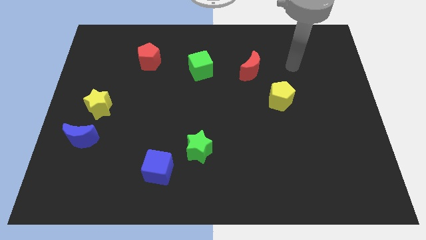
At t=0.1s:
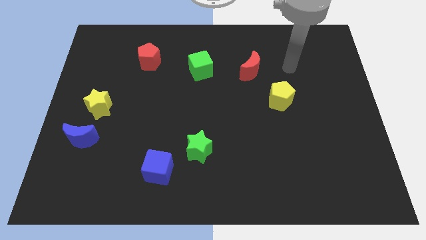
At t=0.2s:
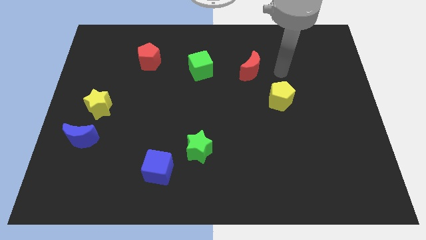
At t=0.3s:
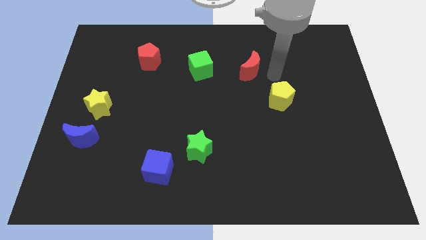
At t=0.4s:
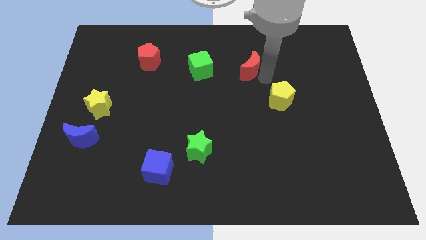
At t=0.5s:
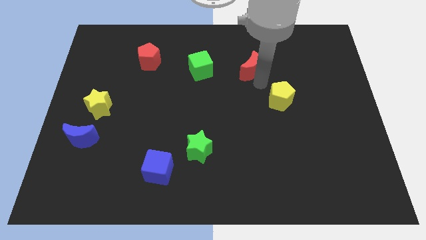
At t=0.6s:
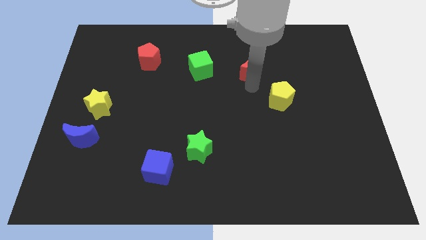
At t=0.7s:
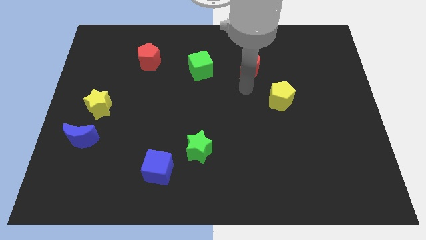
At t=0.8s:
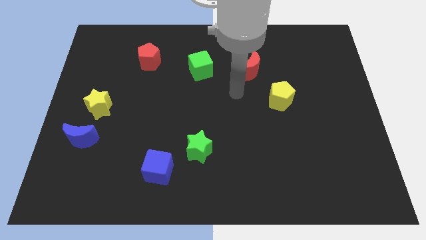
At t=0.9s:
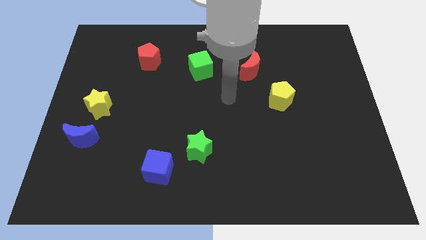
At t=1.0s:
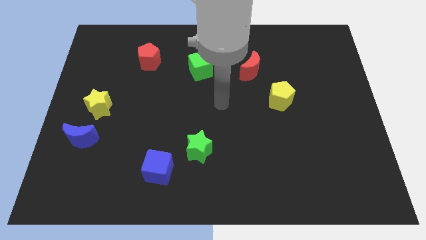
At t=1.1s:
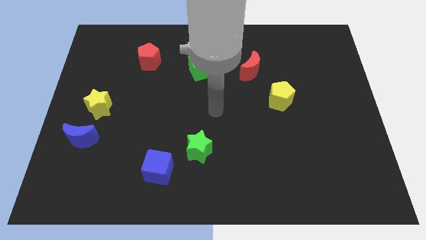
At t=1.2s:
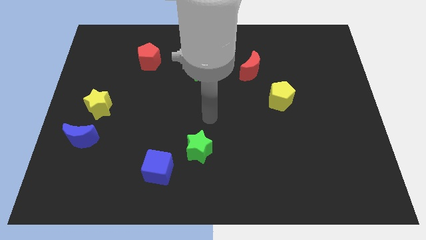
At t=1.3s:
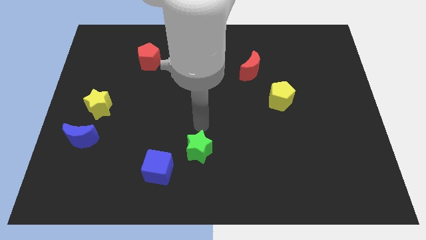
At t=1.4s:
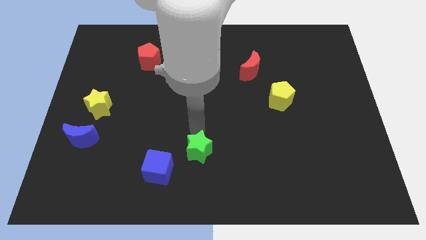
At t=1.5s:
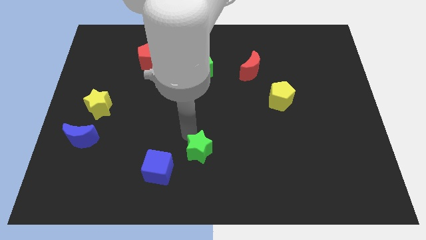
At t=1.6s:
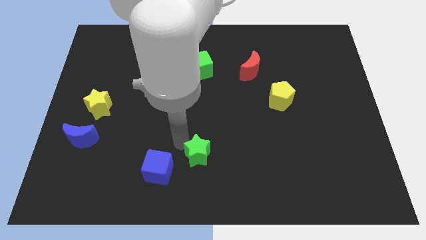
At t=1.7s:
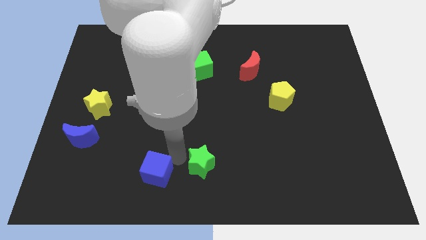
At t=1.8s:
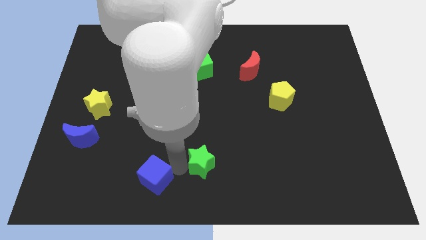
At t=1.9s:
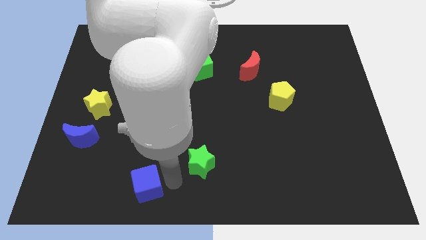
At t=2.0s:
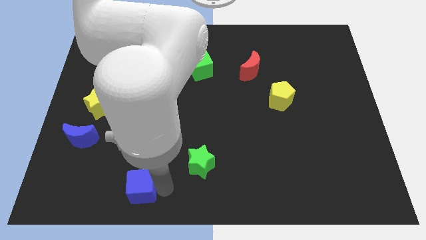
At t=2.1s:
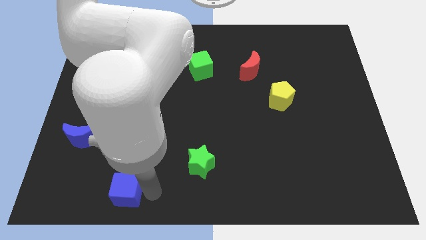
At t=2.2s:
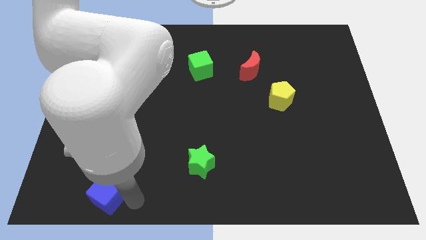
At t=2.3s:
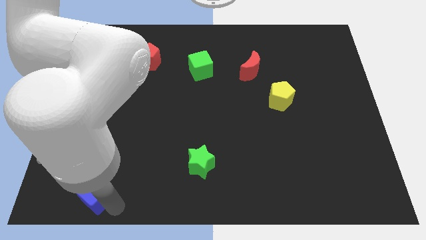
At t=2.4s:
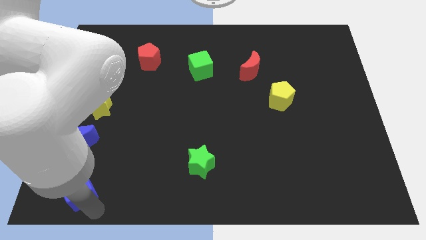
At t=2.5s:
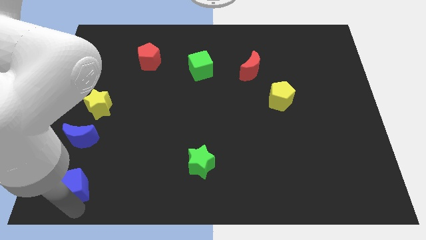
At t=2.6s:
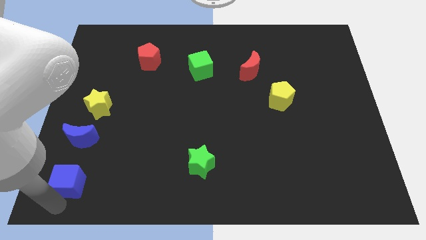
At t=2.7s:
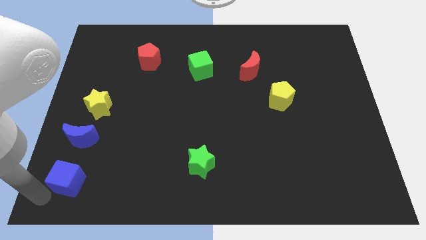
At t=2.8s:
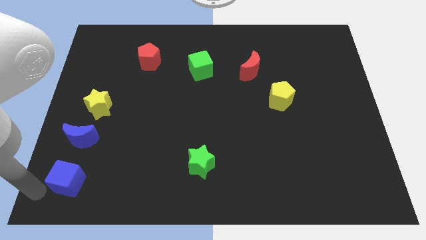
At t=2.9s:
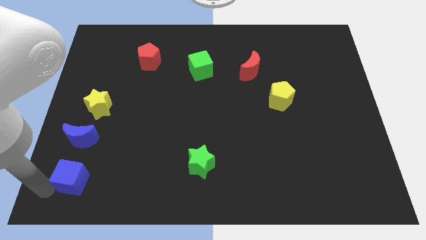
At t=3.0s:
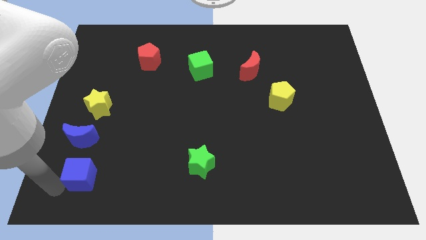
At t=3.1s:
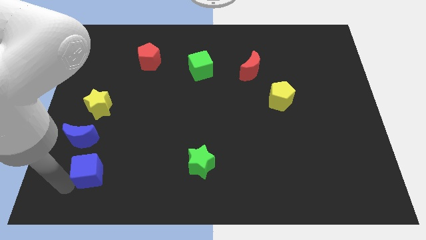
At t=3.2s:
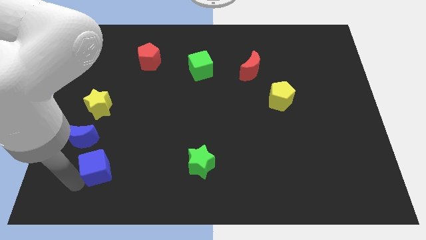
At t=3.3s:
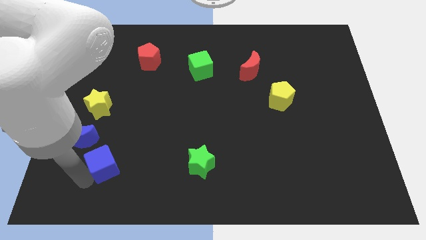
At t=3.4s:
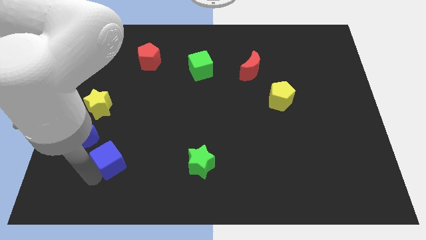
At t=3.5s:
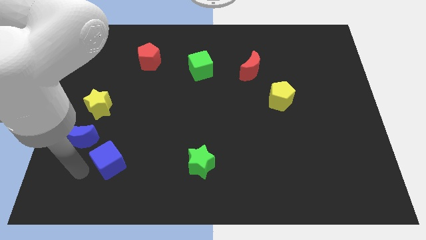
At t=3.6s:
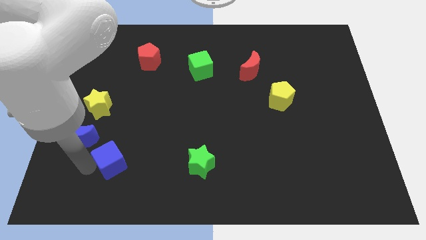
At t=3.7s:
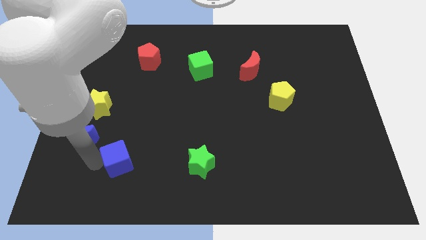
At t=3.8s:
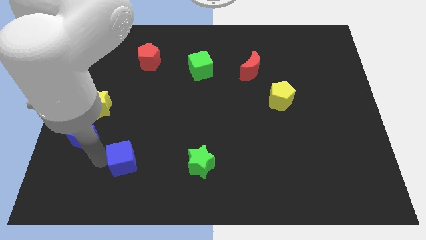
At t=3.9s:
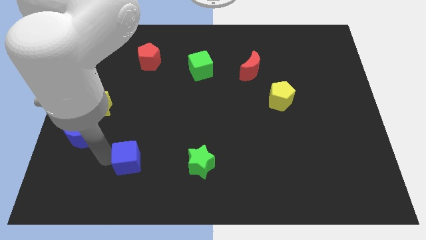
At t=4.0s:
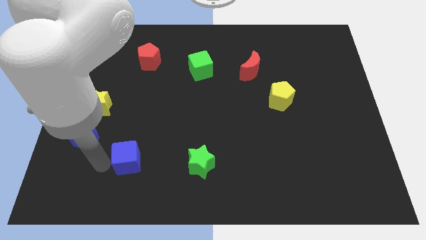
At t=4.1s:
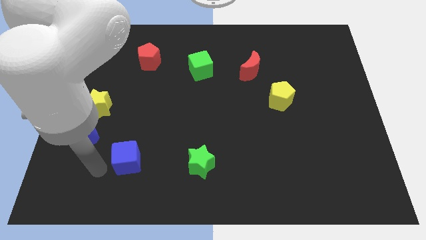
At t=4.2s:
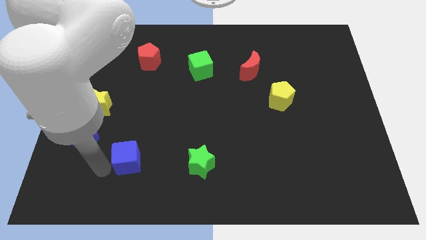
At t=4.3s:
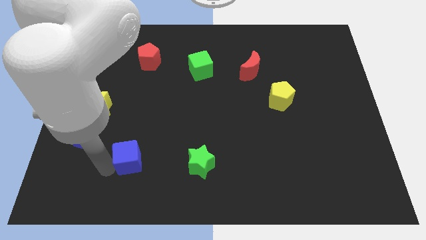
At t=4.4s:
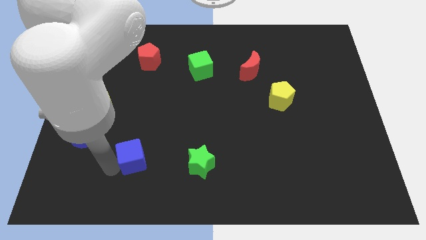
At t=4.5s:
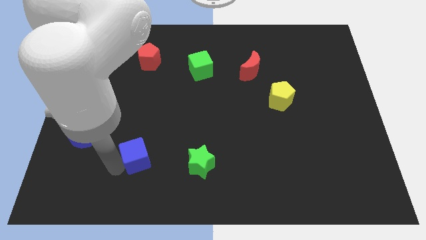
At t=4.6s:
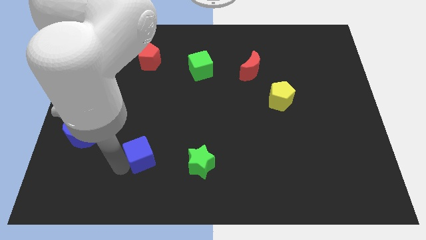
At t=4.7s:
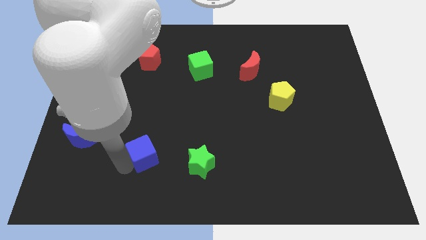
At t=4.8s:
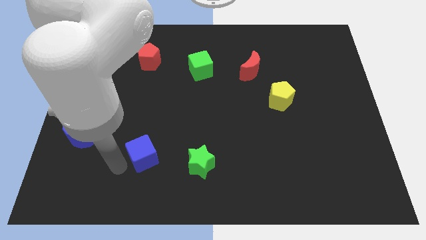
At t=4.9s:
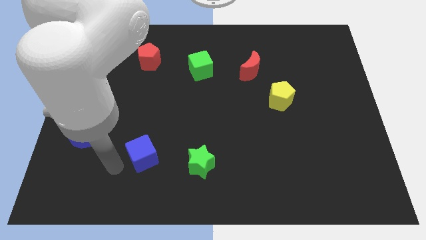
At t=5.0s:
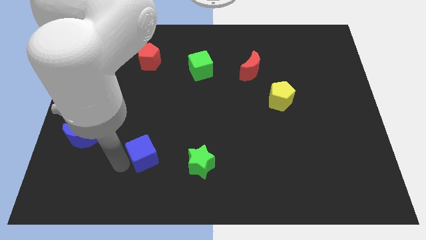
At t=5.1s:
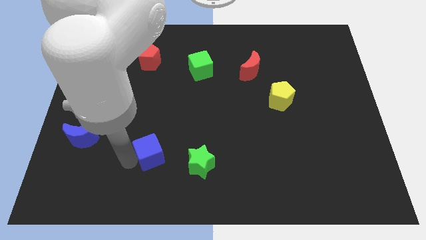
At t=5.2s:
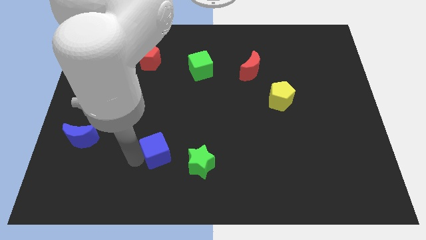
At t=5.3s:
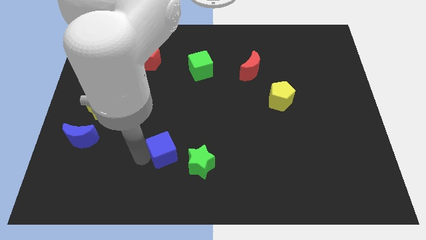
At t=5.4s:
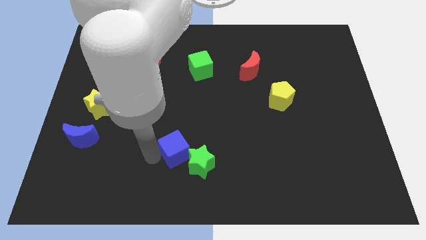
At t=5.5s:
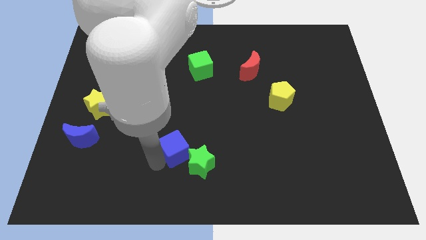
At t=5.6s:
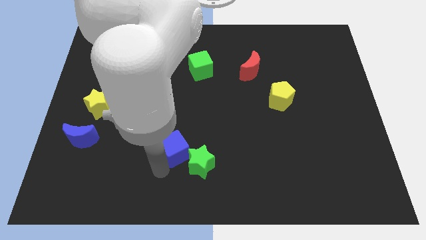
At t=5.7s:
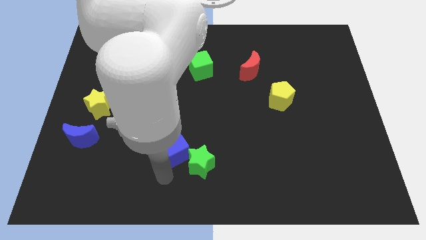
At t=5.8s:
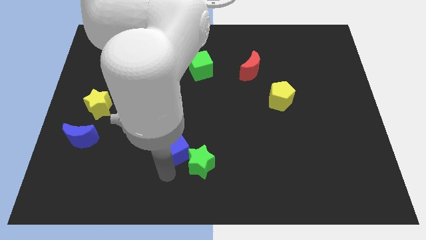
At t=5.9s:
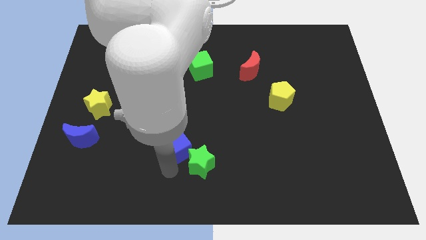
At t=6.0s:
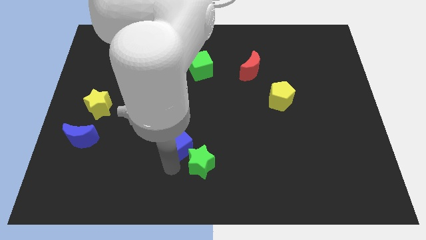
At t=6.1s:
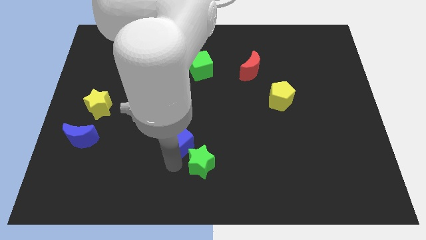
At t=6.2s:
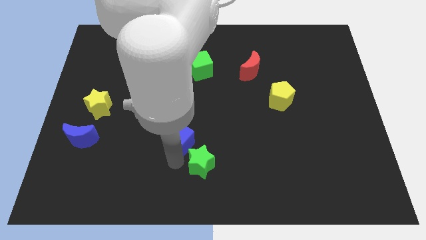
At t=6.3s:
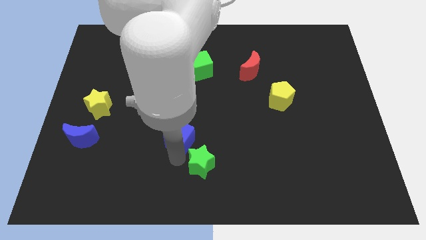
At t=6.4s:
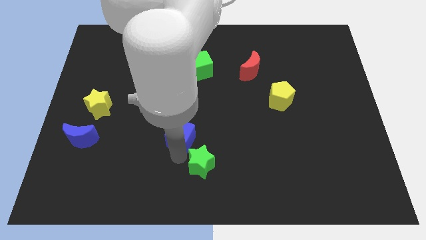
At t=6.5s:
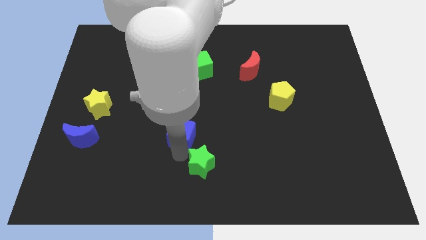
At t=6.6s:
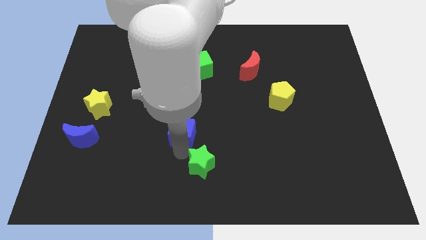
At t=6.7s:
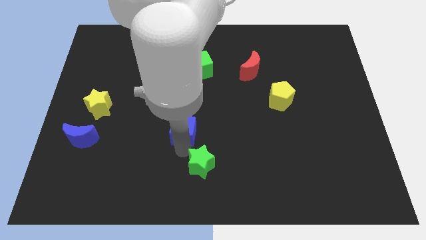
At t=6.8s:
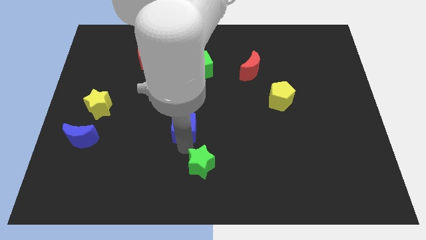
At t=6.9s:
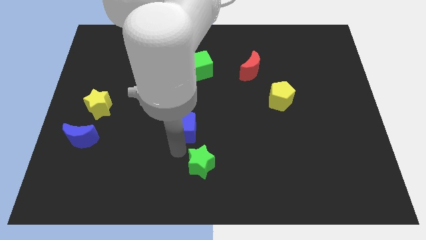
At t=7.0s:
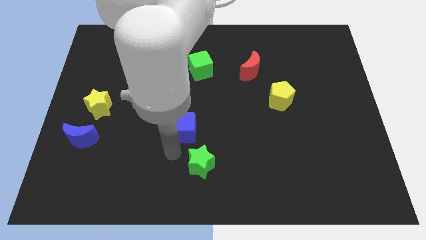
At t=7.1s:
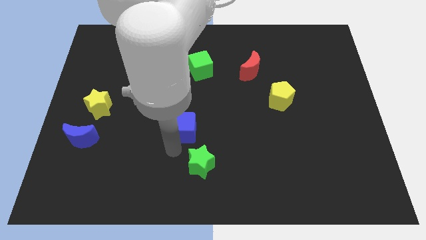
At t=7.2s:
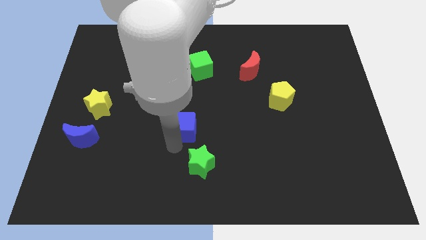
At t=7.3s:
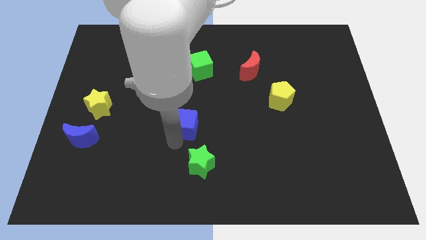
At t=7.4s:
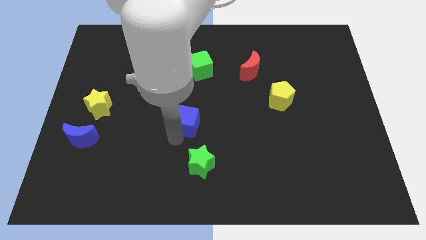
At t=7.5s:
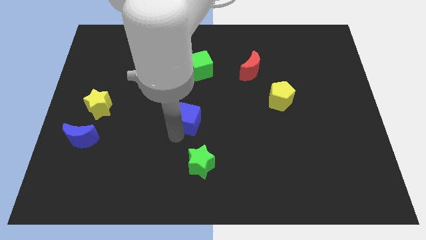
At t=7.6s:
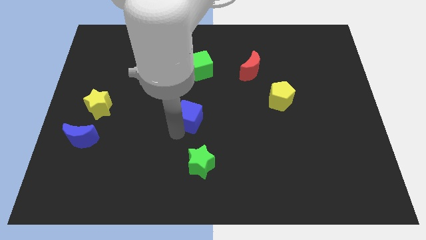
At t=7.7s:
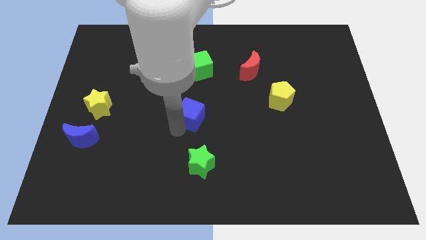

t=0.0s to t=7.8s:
move the blue cube to the bottom side of the green cube
